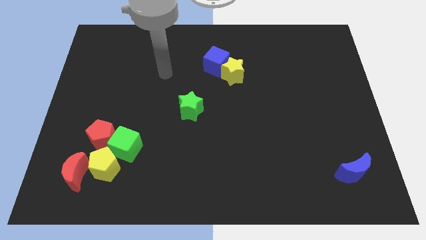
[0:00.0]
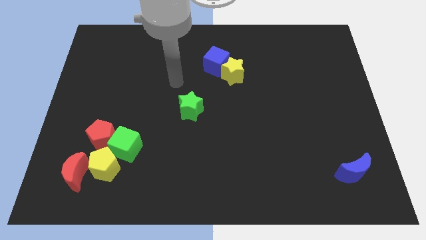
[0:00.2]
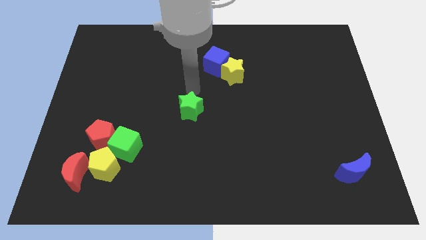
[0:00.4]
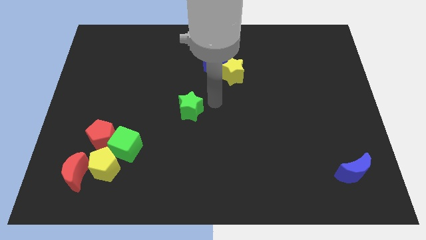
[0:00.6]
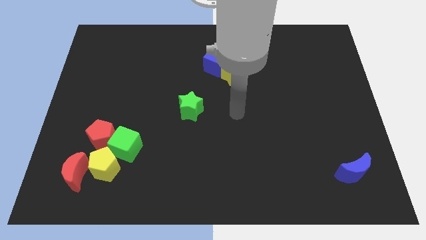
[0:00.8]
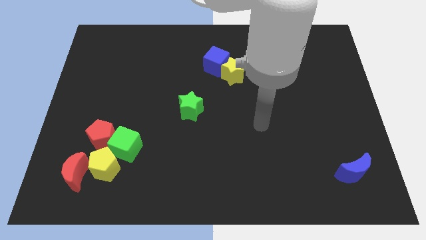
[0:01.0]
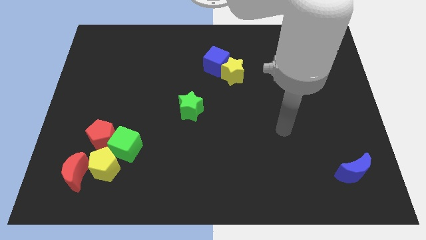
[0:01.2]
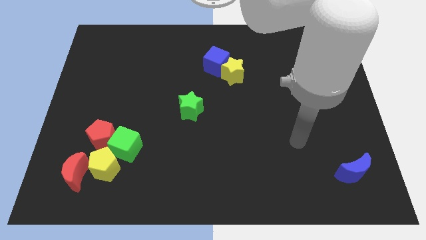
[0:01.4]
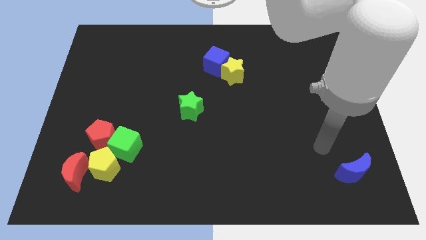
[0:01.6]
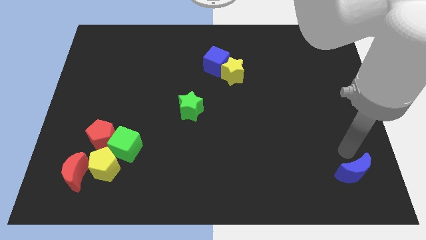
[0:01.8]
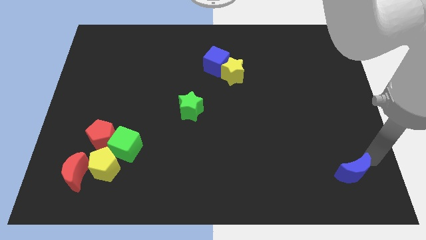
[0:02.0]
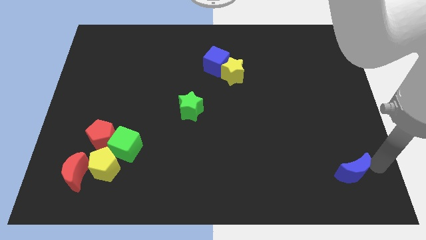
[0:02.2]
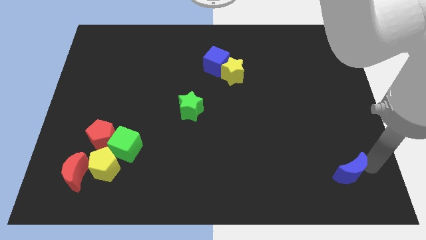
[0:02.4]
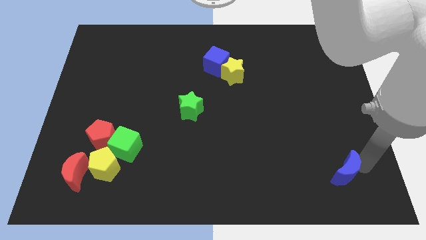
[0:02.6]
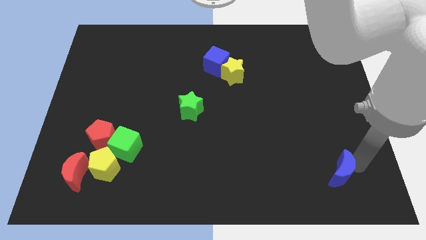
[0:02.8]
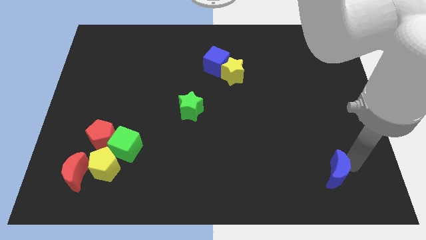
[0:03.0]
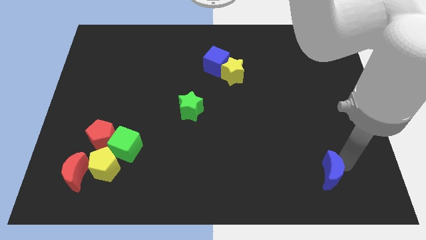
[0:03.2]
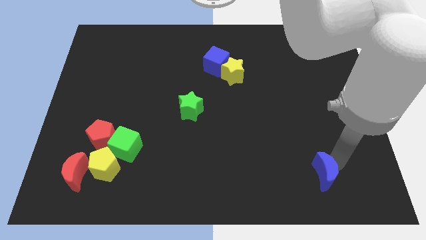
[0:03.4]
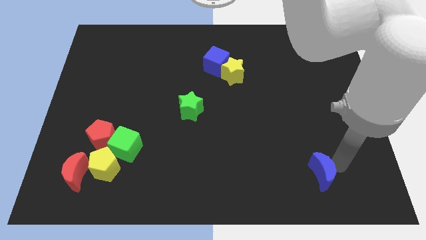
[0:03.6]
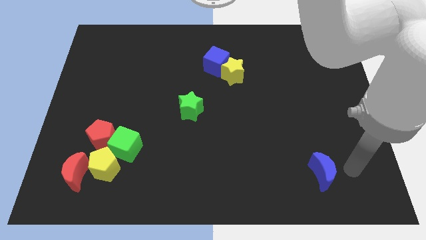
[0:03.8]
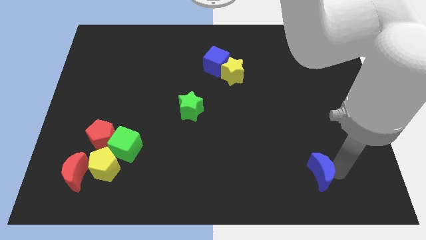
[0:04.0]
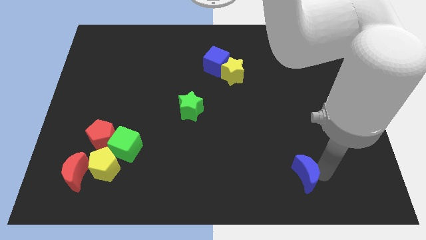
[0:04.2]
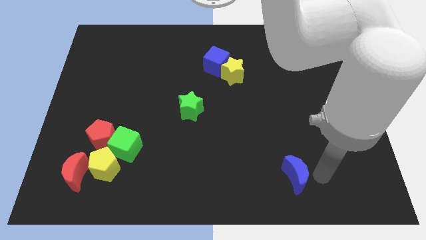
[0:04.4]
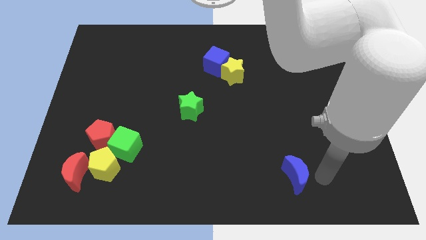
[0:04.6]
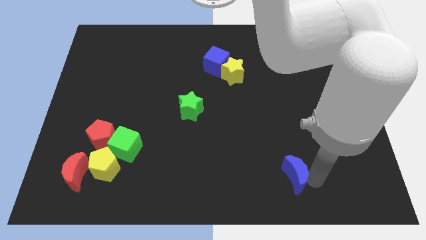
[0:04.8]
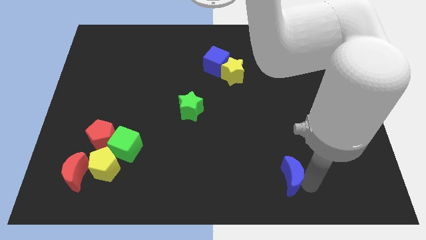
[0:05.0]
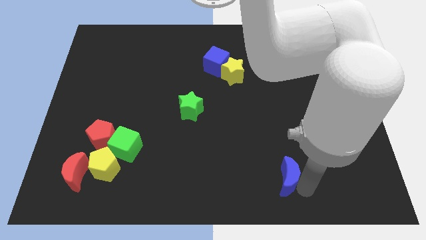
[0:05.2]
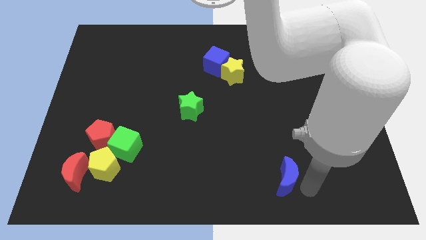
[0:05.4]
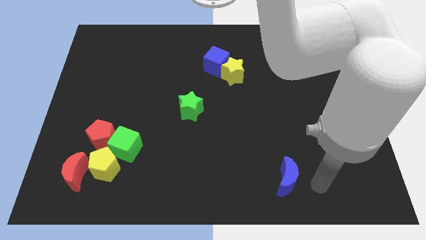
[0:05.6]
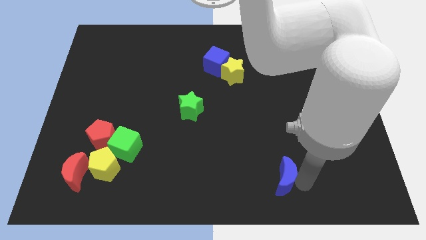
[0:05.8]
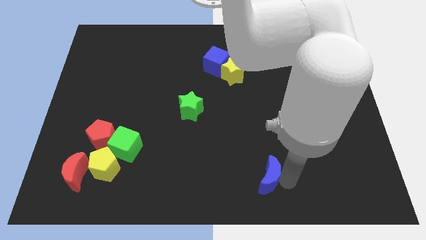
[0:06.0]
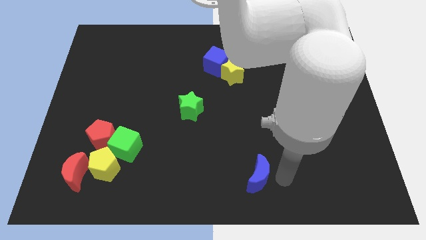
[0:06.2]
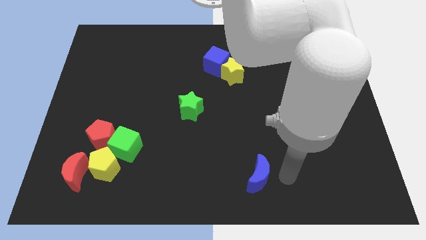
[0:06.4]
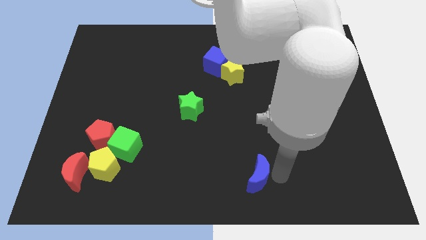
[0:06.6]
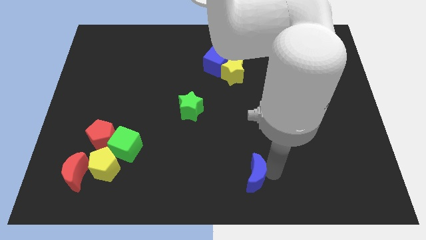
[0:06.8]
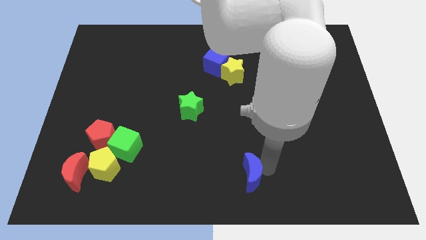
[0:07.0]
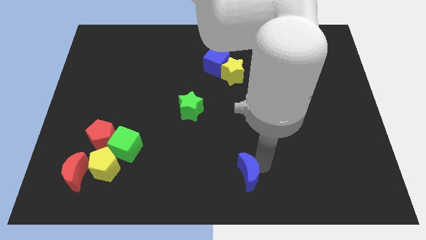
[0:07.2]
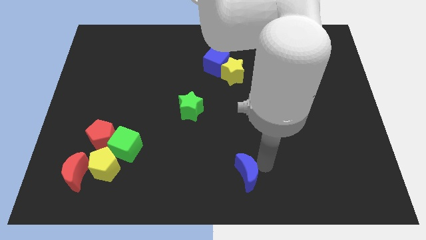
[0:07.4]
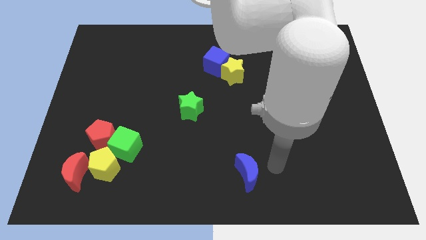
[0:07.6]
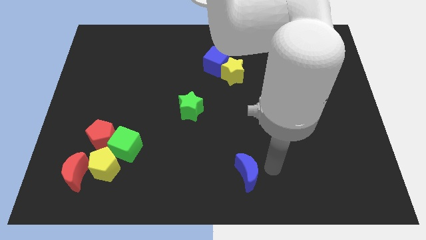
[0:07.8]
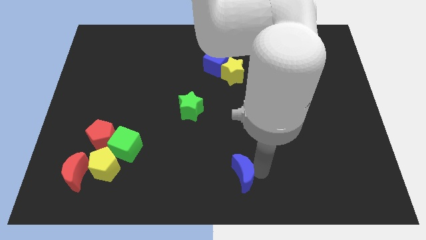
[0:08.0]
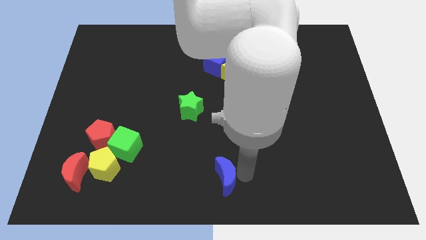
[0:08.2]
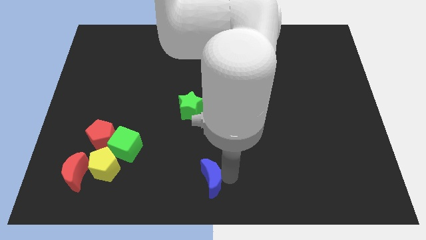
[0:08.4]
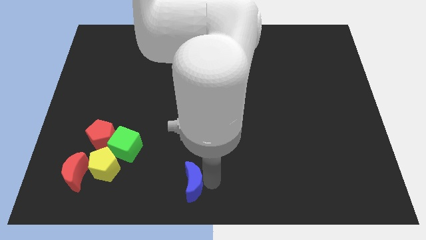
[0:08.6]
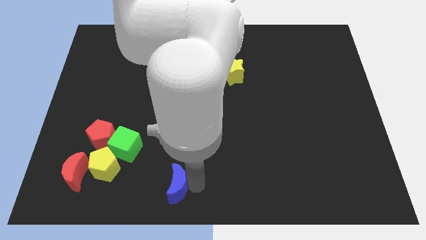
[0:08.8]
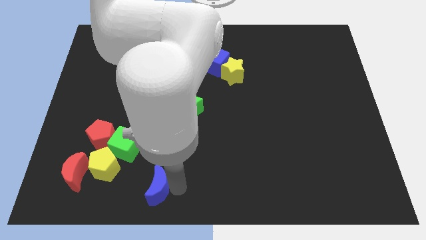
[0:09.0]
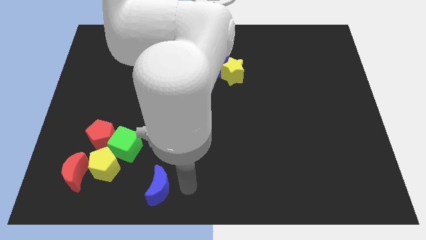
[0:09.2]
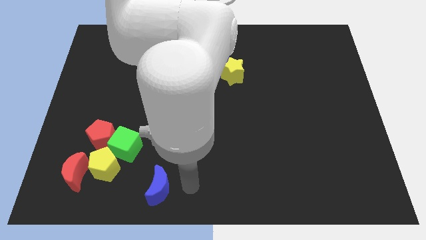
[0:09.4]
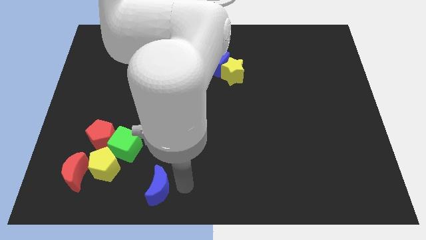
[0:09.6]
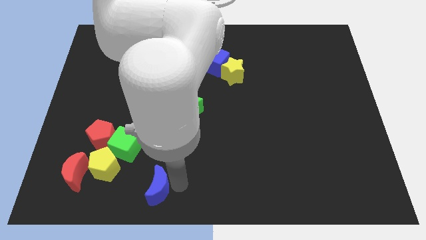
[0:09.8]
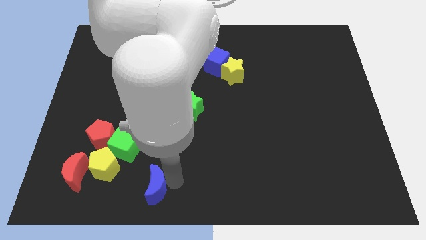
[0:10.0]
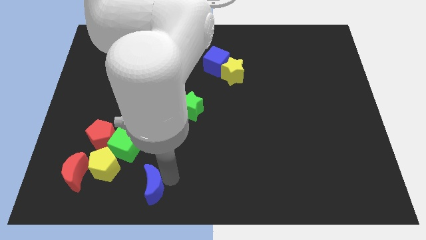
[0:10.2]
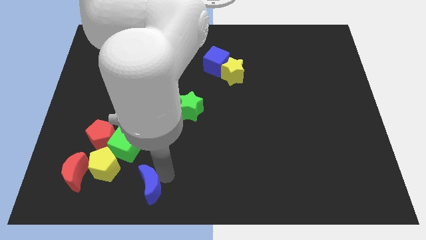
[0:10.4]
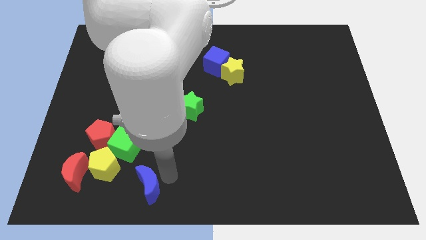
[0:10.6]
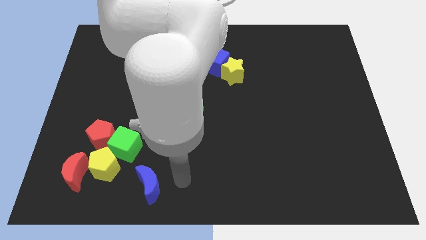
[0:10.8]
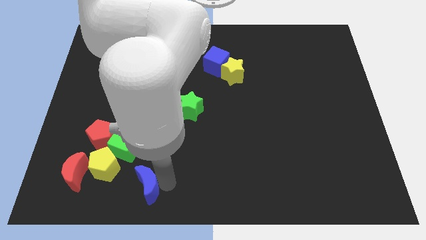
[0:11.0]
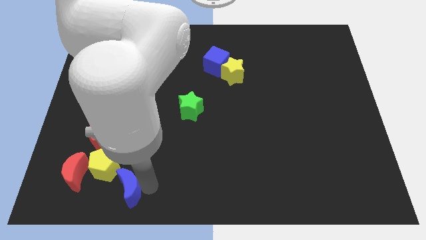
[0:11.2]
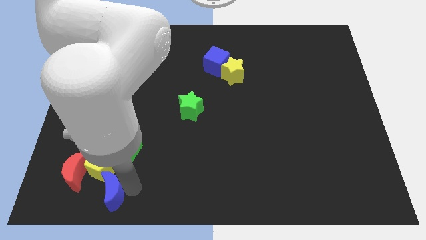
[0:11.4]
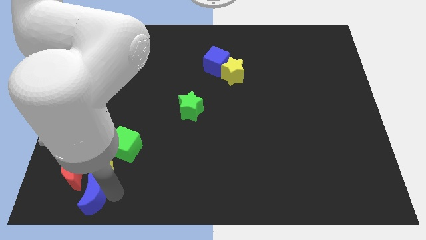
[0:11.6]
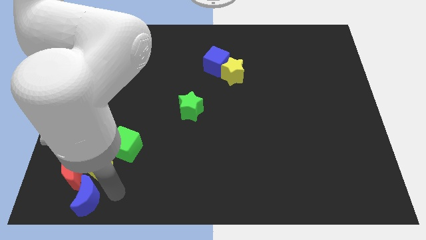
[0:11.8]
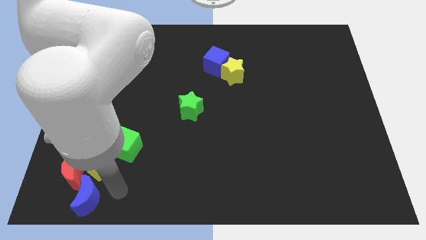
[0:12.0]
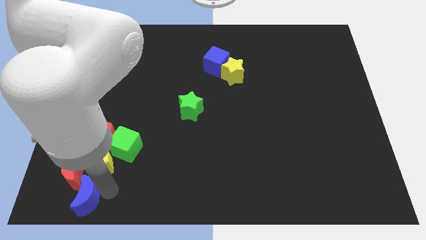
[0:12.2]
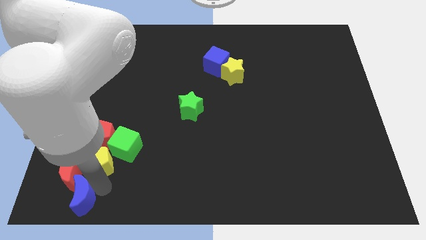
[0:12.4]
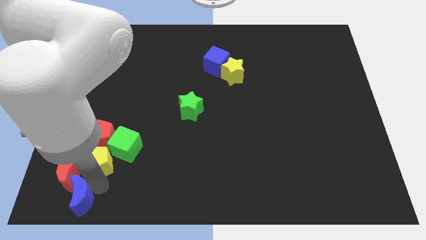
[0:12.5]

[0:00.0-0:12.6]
move the blue moon to the bottom left of the board
